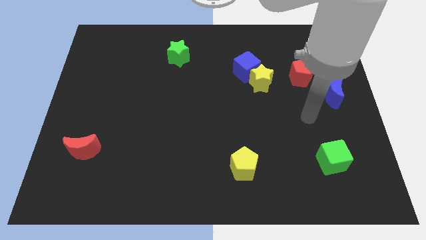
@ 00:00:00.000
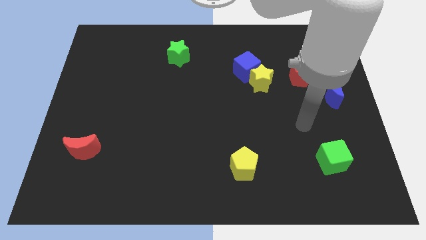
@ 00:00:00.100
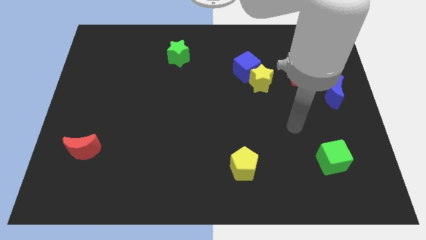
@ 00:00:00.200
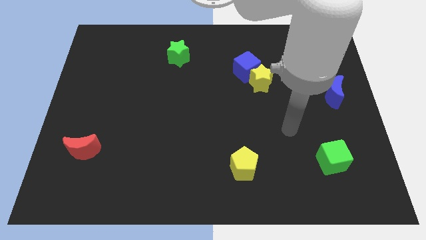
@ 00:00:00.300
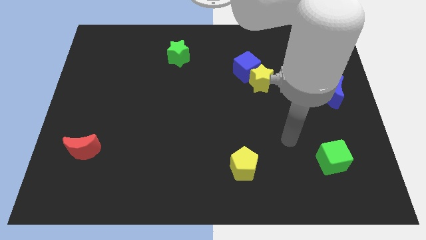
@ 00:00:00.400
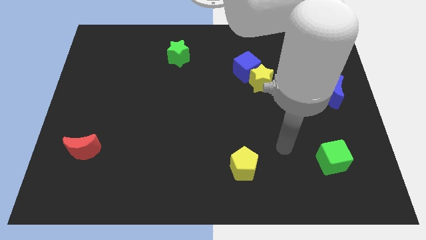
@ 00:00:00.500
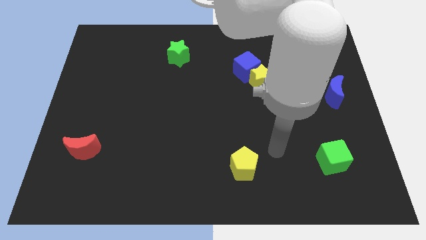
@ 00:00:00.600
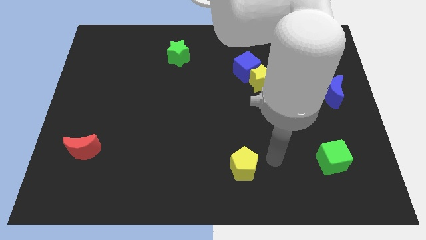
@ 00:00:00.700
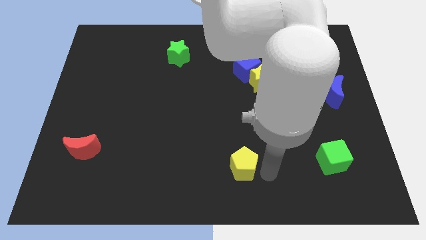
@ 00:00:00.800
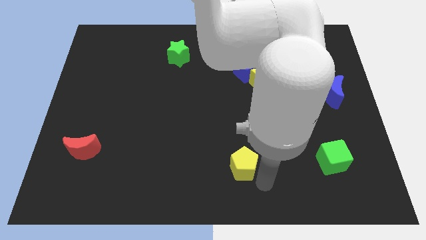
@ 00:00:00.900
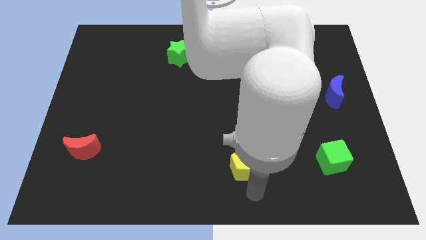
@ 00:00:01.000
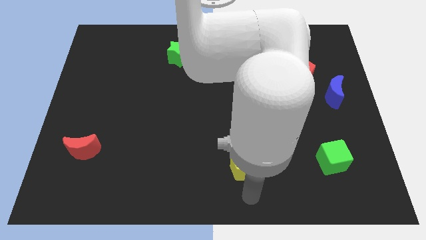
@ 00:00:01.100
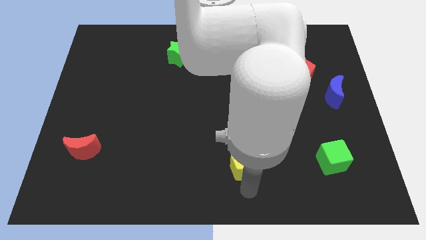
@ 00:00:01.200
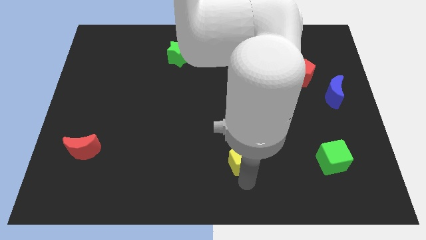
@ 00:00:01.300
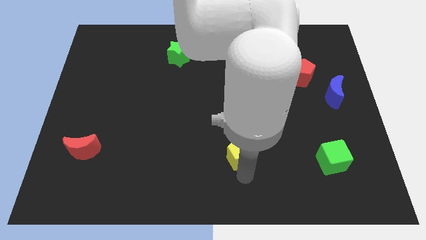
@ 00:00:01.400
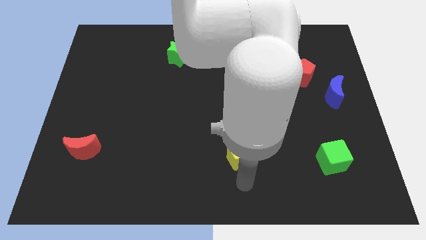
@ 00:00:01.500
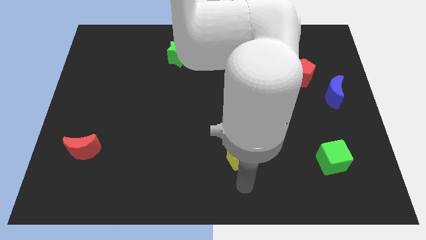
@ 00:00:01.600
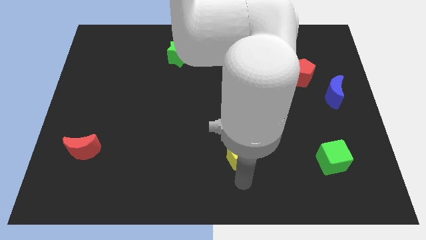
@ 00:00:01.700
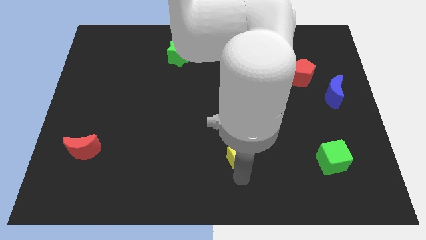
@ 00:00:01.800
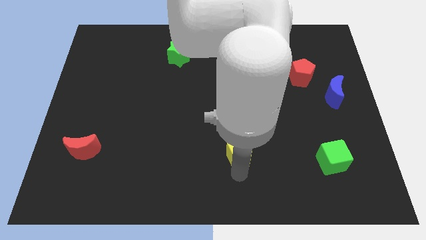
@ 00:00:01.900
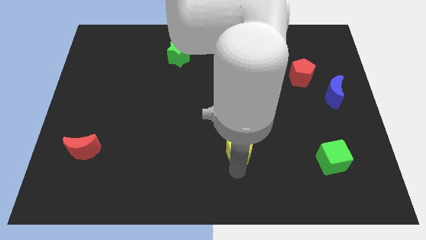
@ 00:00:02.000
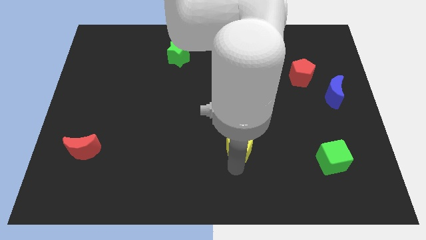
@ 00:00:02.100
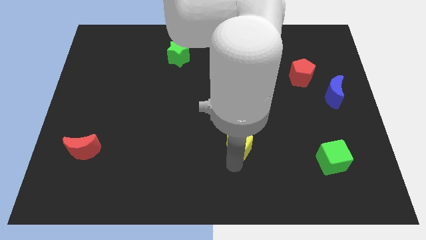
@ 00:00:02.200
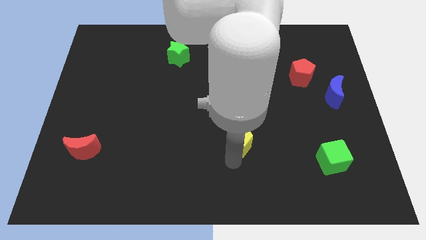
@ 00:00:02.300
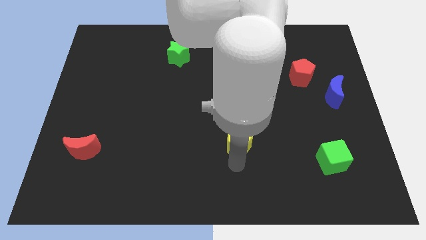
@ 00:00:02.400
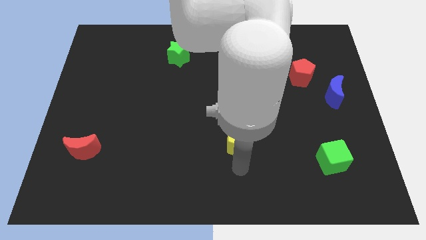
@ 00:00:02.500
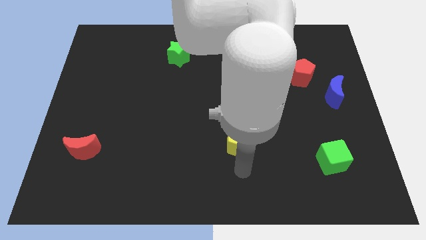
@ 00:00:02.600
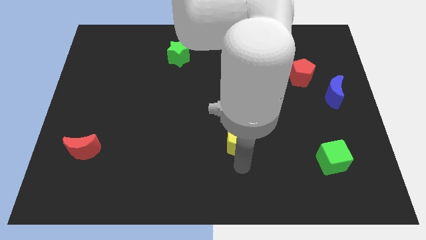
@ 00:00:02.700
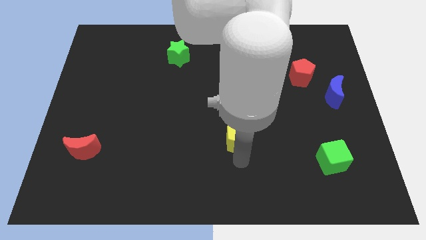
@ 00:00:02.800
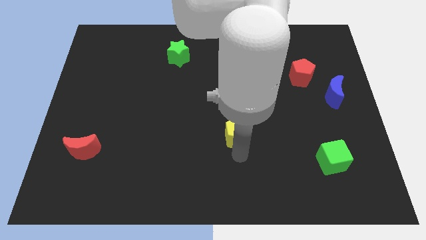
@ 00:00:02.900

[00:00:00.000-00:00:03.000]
slide the yellow pentagon somewhat upwards

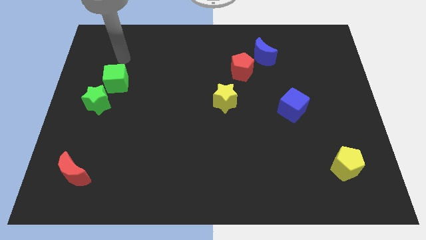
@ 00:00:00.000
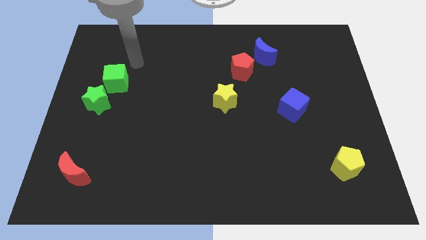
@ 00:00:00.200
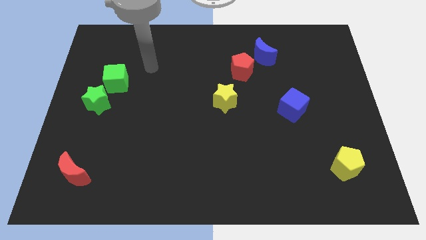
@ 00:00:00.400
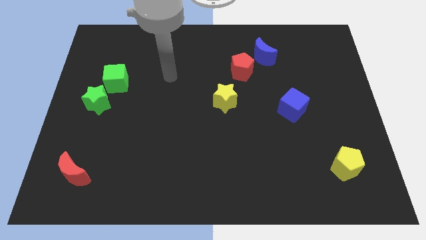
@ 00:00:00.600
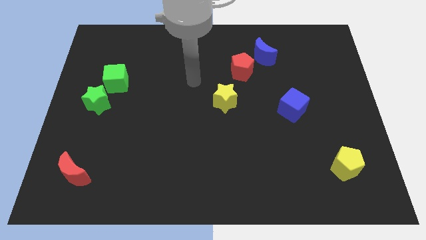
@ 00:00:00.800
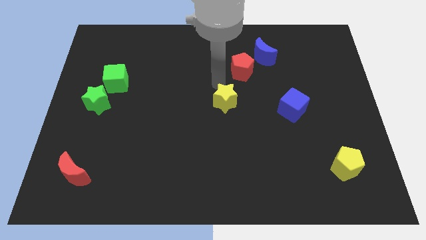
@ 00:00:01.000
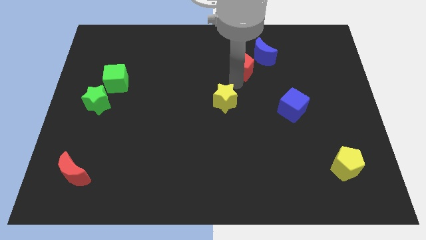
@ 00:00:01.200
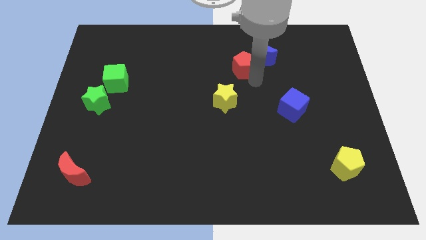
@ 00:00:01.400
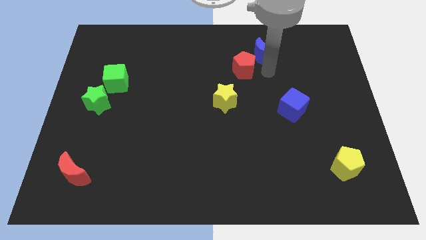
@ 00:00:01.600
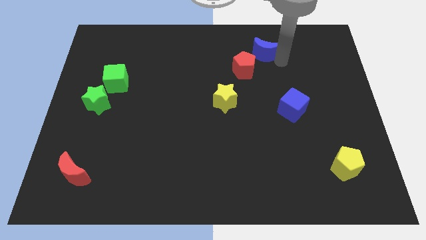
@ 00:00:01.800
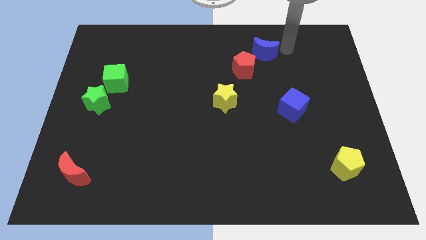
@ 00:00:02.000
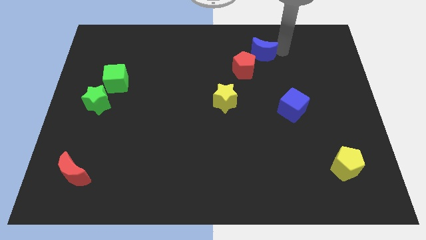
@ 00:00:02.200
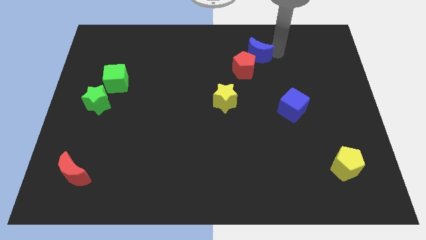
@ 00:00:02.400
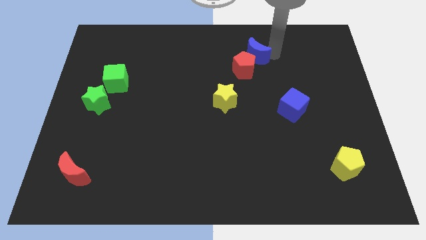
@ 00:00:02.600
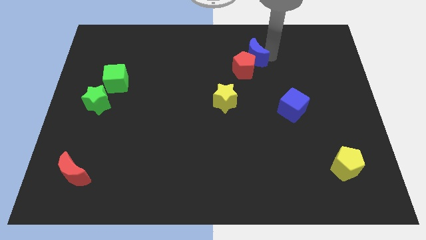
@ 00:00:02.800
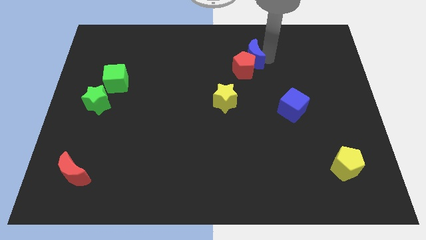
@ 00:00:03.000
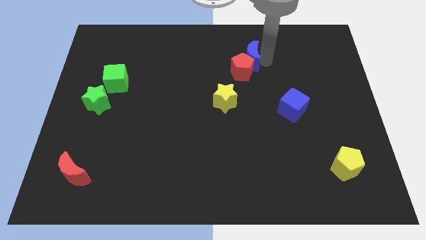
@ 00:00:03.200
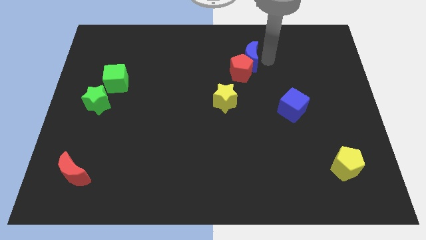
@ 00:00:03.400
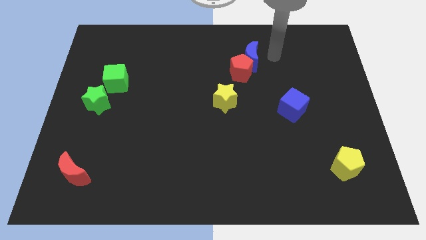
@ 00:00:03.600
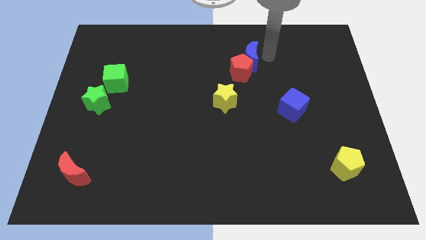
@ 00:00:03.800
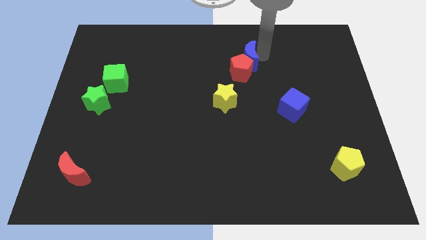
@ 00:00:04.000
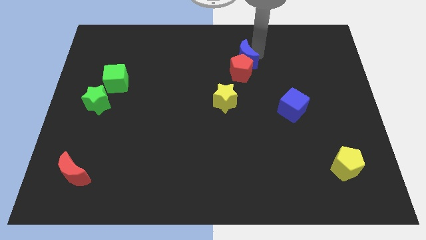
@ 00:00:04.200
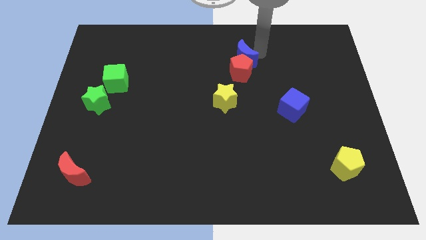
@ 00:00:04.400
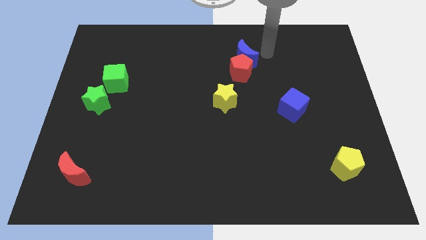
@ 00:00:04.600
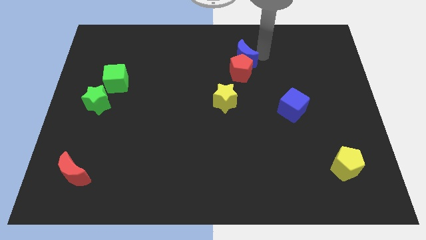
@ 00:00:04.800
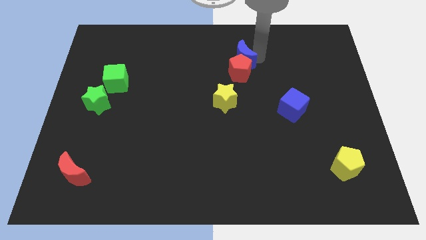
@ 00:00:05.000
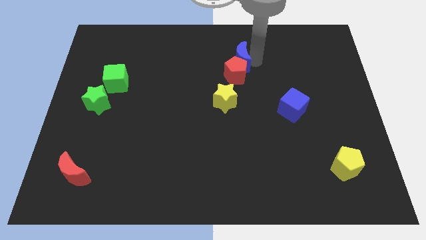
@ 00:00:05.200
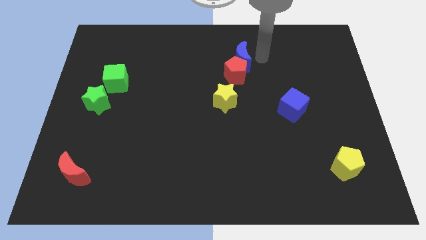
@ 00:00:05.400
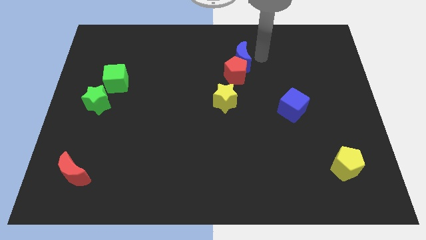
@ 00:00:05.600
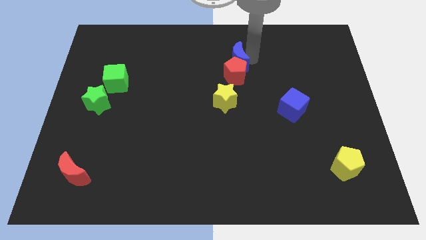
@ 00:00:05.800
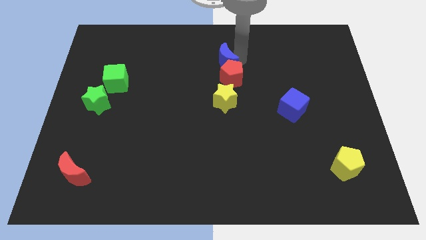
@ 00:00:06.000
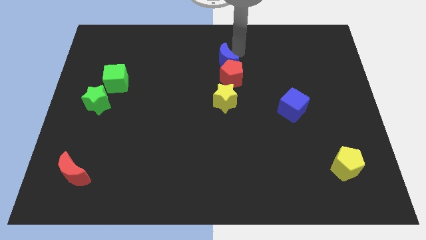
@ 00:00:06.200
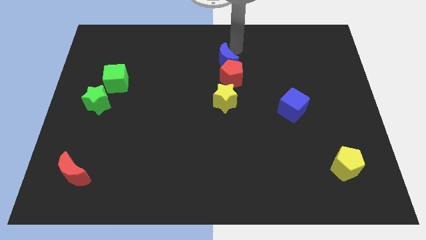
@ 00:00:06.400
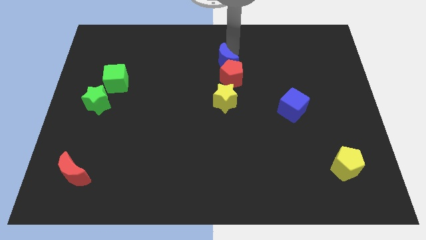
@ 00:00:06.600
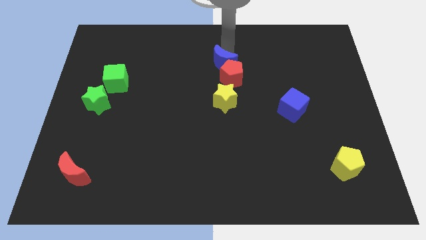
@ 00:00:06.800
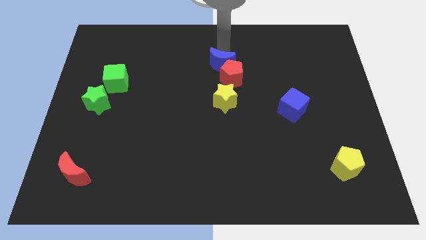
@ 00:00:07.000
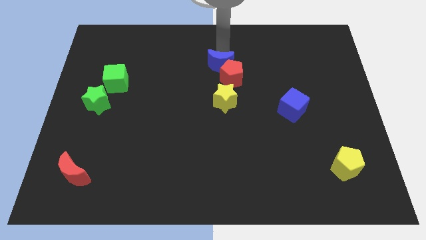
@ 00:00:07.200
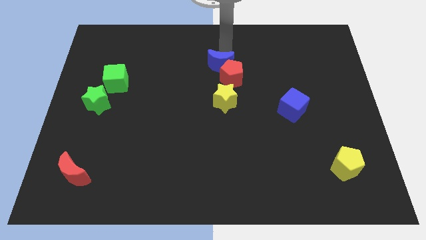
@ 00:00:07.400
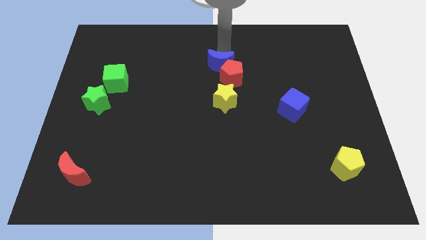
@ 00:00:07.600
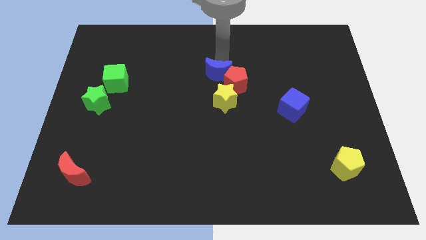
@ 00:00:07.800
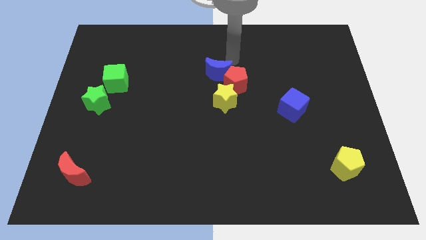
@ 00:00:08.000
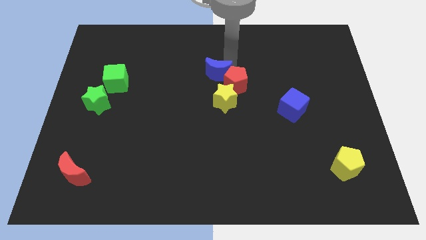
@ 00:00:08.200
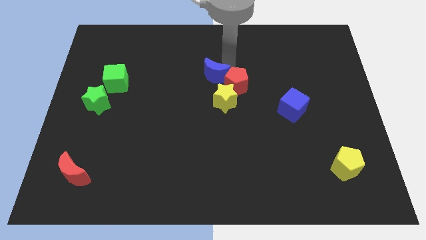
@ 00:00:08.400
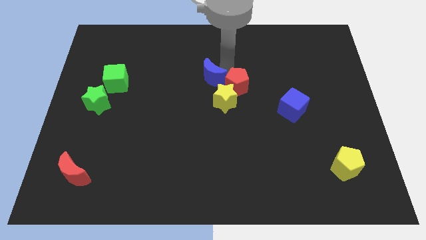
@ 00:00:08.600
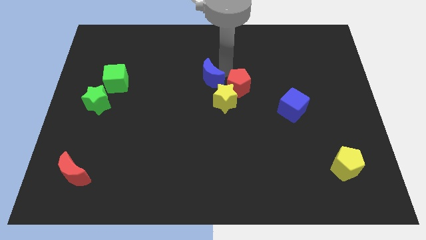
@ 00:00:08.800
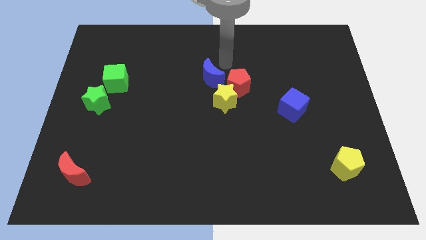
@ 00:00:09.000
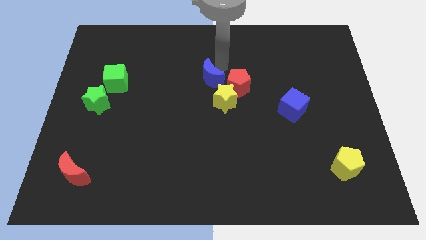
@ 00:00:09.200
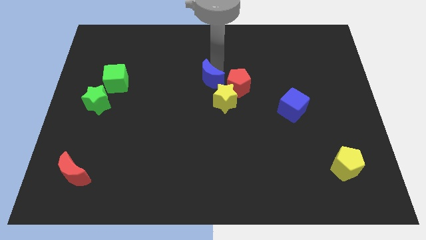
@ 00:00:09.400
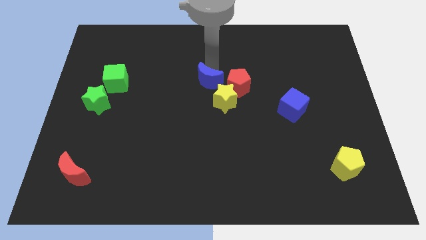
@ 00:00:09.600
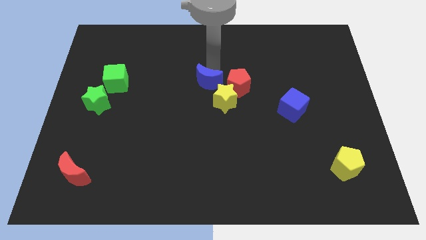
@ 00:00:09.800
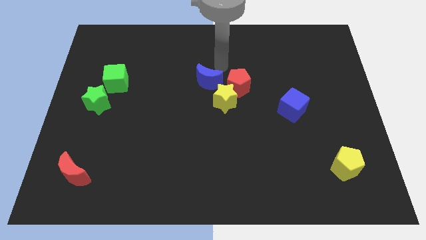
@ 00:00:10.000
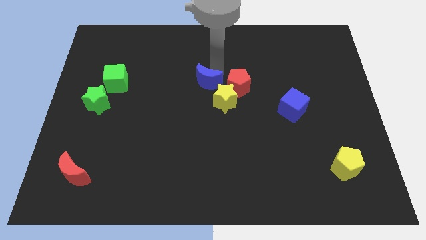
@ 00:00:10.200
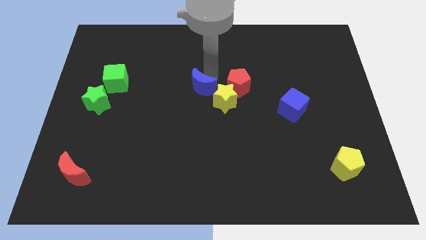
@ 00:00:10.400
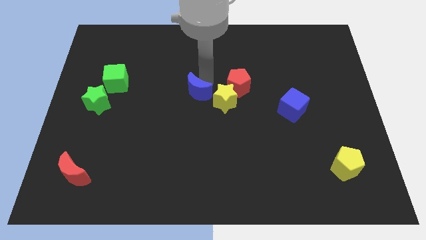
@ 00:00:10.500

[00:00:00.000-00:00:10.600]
push the blue moon diagonally down and left
